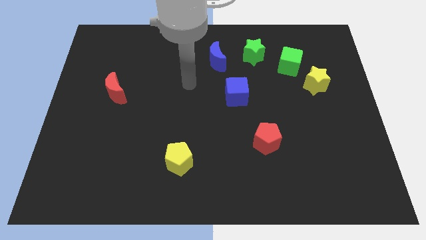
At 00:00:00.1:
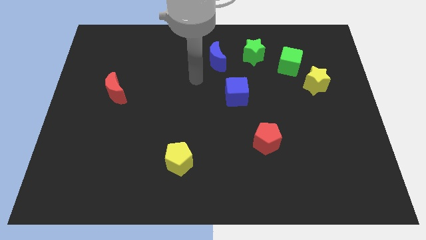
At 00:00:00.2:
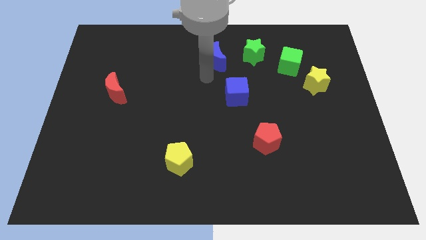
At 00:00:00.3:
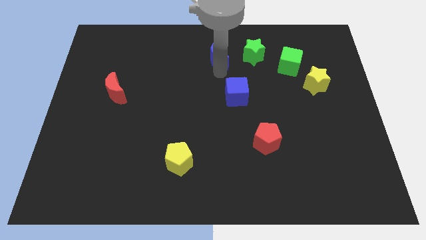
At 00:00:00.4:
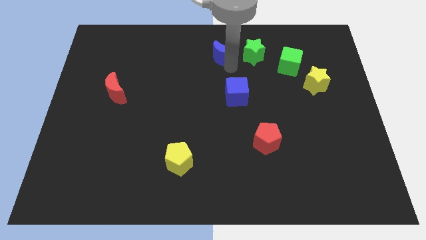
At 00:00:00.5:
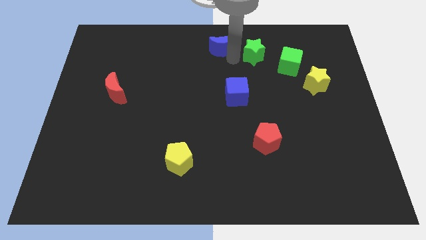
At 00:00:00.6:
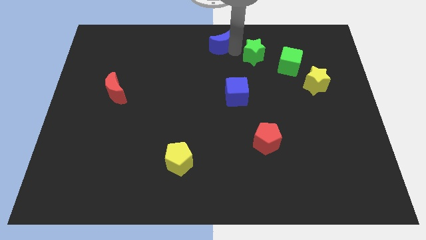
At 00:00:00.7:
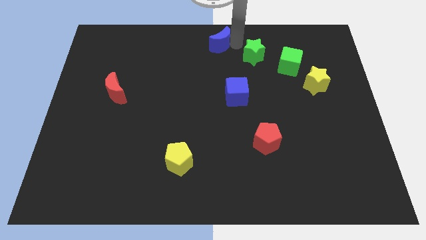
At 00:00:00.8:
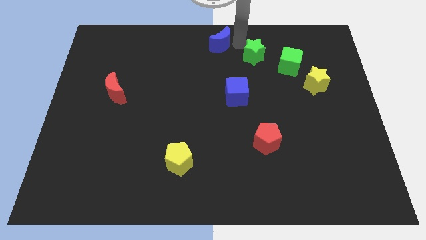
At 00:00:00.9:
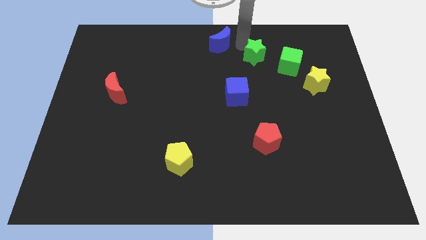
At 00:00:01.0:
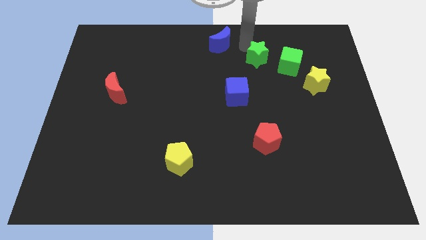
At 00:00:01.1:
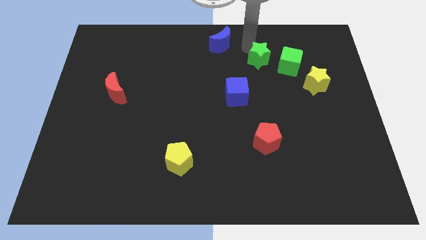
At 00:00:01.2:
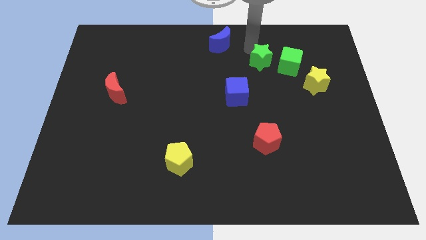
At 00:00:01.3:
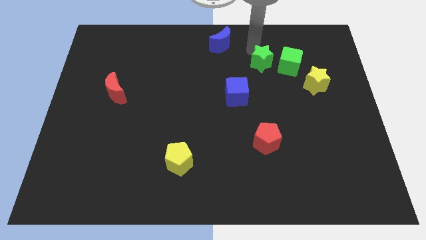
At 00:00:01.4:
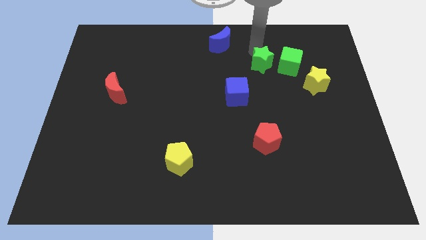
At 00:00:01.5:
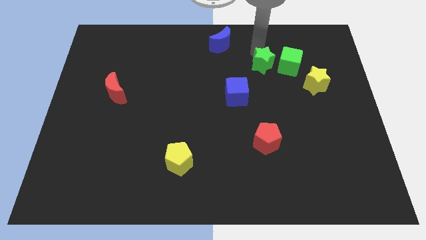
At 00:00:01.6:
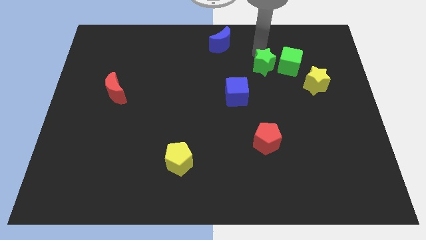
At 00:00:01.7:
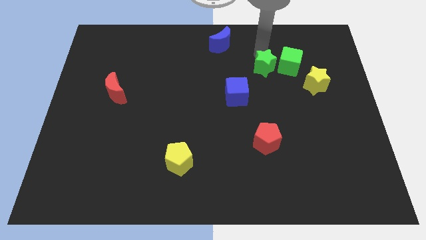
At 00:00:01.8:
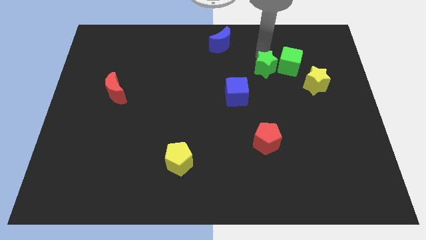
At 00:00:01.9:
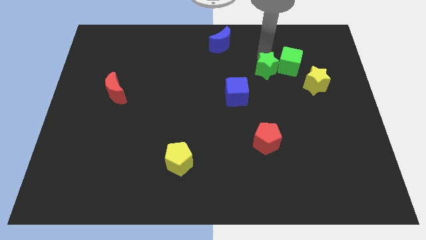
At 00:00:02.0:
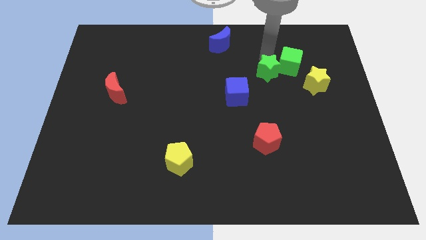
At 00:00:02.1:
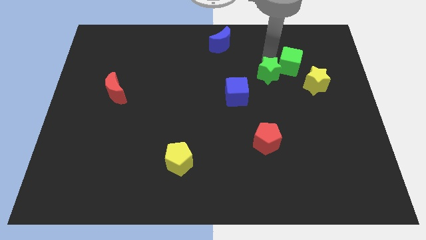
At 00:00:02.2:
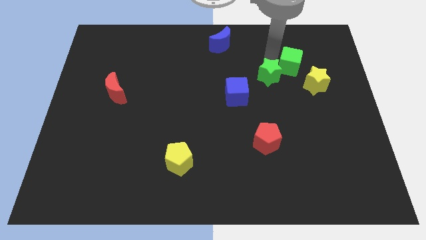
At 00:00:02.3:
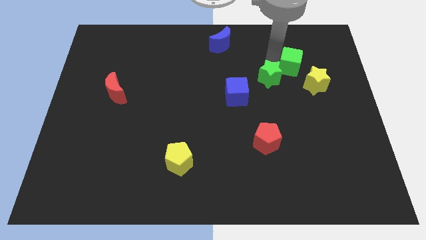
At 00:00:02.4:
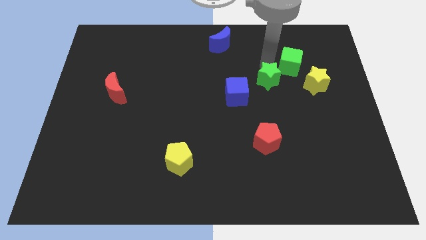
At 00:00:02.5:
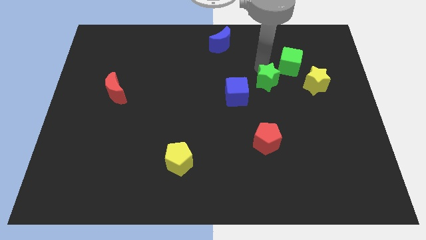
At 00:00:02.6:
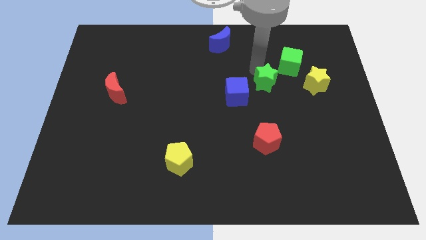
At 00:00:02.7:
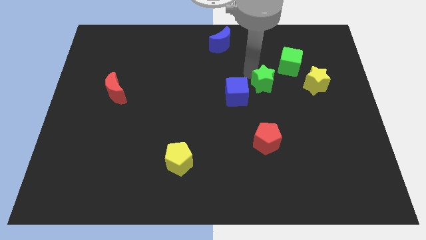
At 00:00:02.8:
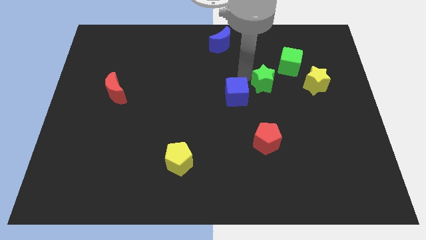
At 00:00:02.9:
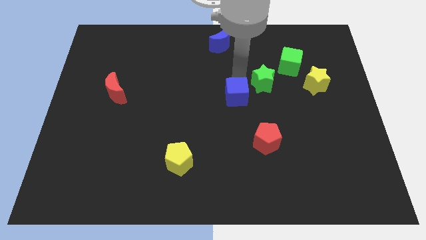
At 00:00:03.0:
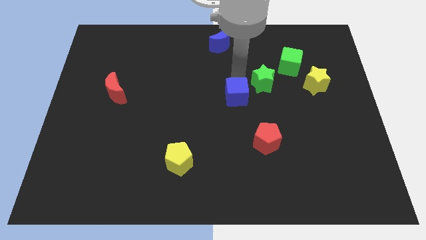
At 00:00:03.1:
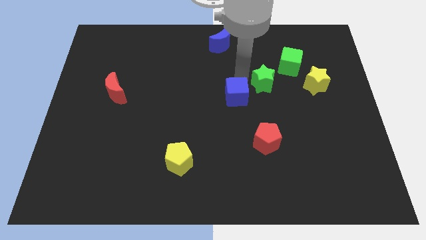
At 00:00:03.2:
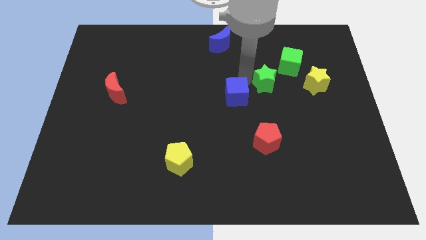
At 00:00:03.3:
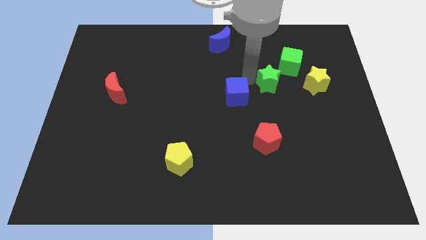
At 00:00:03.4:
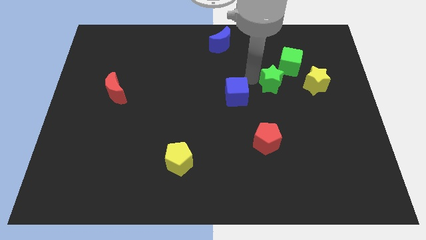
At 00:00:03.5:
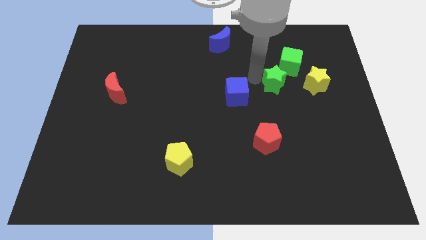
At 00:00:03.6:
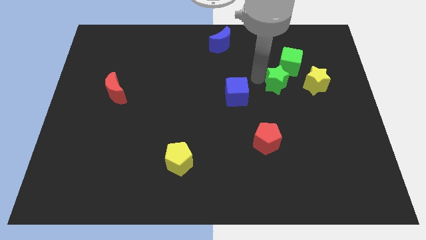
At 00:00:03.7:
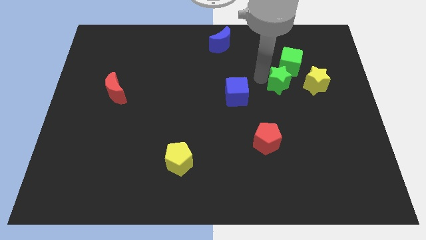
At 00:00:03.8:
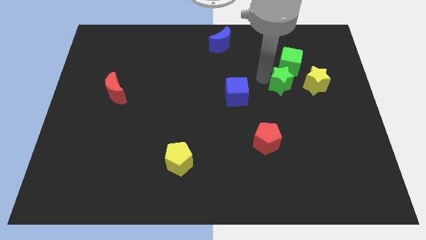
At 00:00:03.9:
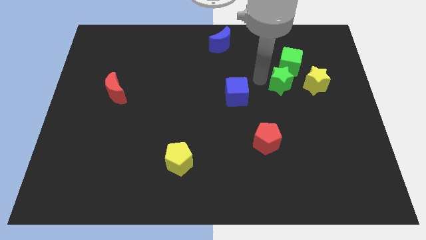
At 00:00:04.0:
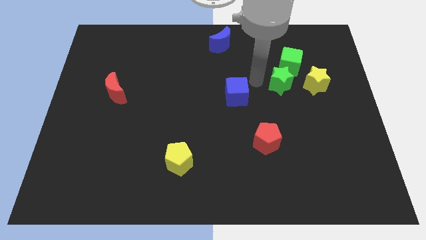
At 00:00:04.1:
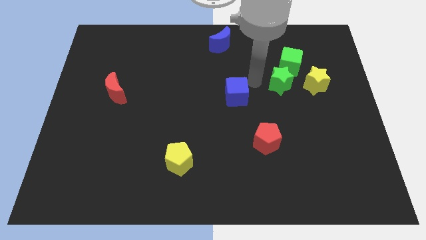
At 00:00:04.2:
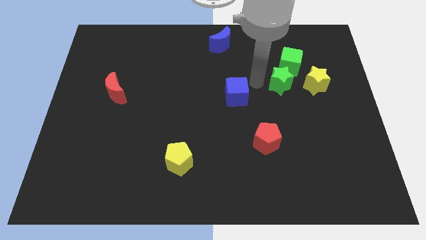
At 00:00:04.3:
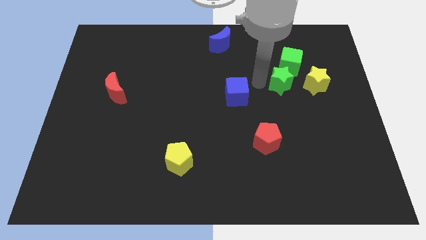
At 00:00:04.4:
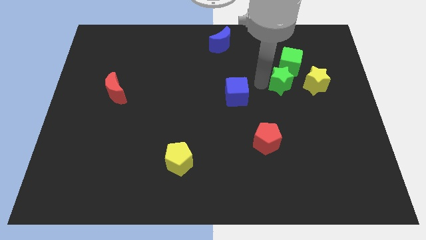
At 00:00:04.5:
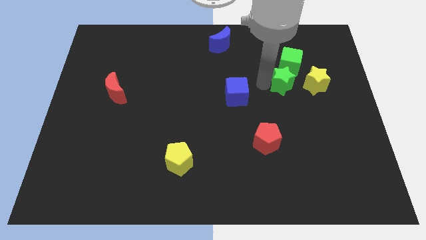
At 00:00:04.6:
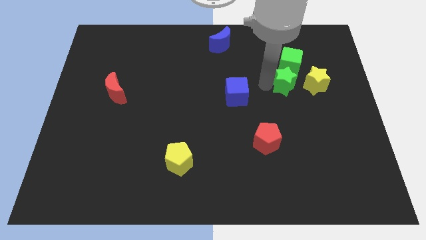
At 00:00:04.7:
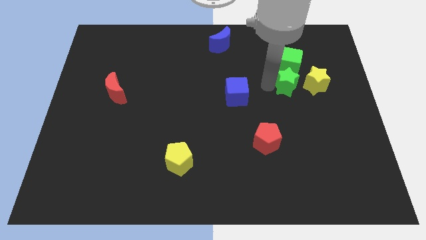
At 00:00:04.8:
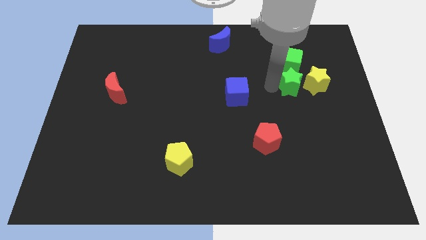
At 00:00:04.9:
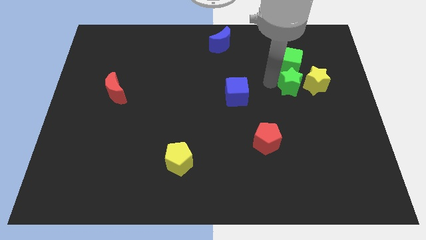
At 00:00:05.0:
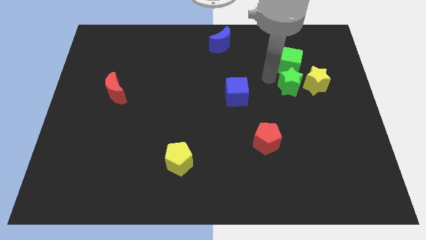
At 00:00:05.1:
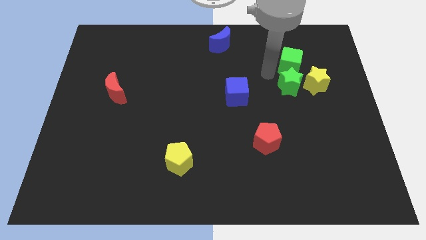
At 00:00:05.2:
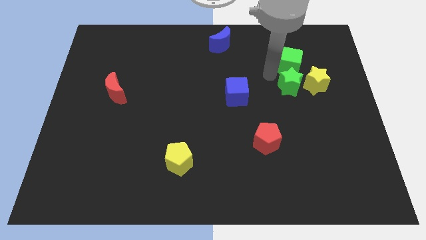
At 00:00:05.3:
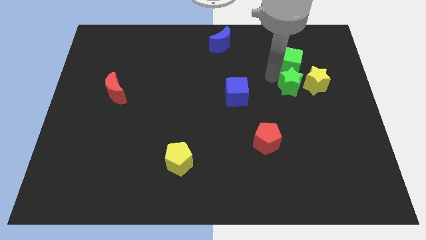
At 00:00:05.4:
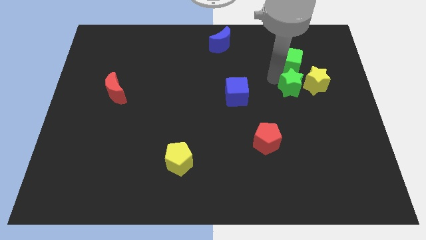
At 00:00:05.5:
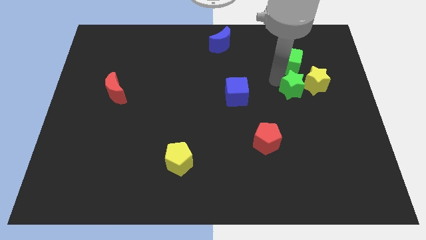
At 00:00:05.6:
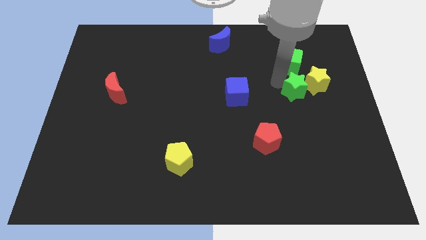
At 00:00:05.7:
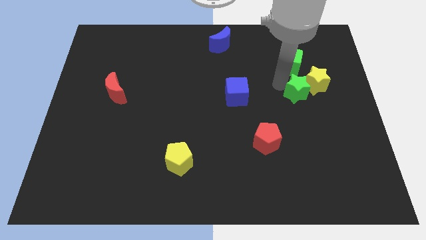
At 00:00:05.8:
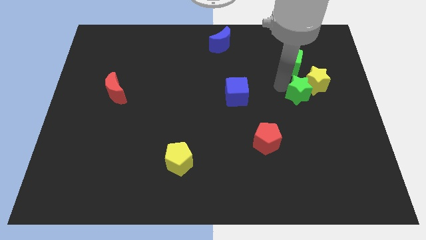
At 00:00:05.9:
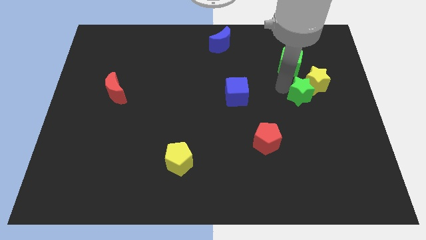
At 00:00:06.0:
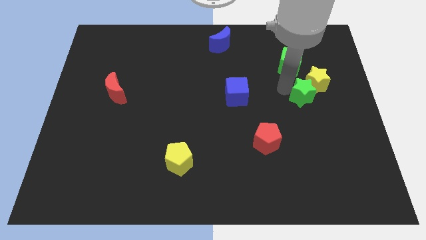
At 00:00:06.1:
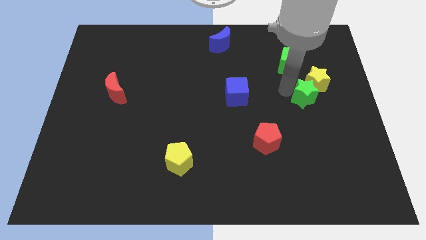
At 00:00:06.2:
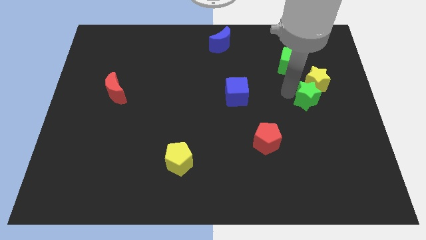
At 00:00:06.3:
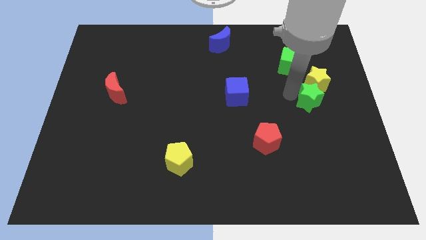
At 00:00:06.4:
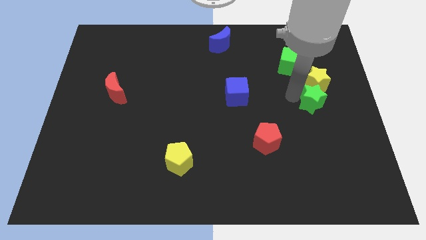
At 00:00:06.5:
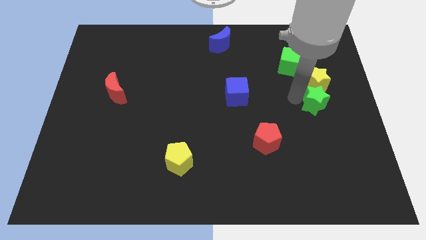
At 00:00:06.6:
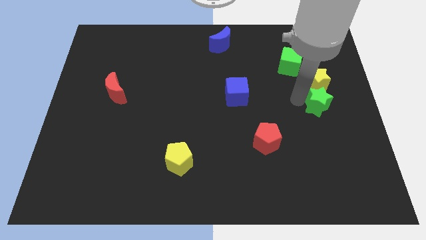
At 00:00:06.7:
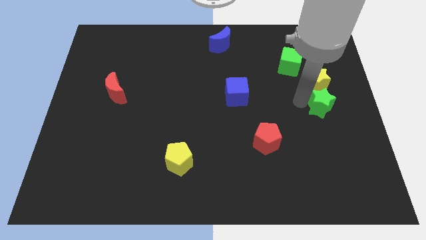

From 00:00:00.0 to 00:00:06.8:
move the green star to the center right
